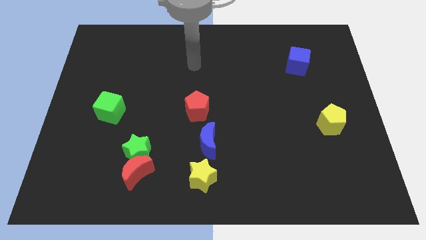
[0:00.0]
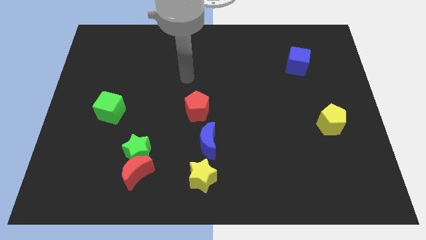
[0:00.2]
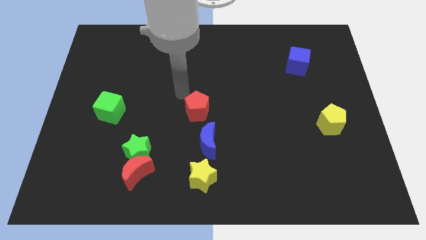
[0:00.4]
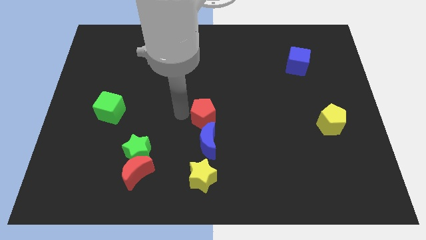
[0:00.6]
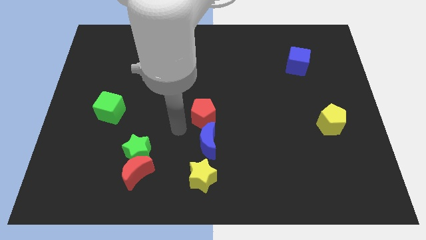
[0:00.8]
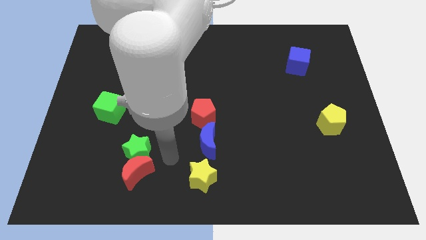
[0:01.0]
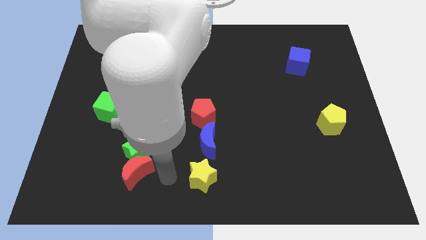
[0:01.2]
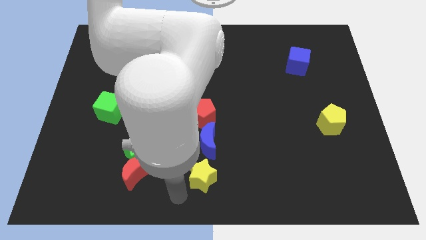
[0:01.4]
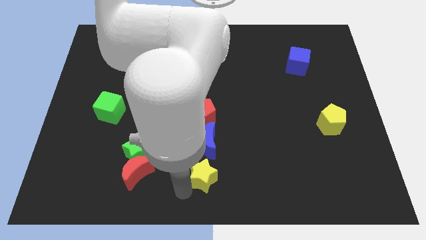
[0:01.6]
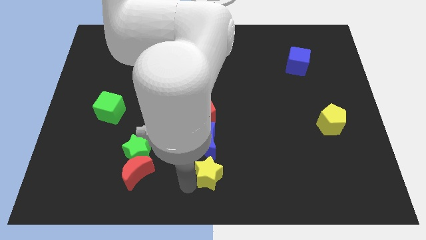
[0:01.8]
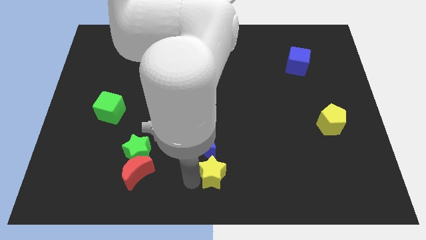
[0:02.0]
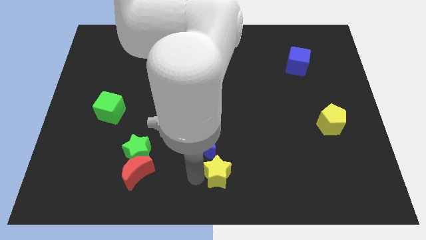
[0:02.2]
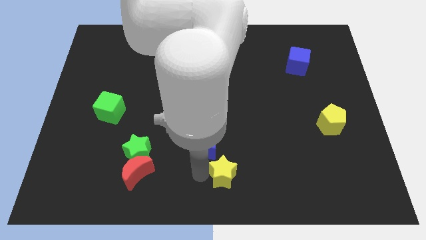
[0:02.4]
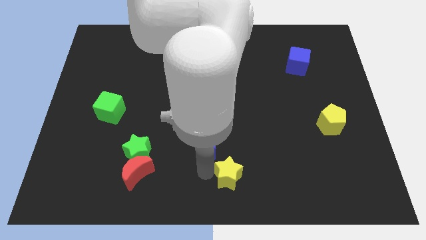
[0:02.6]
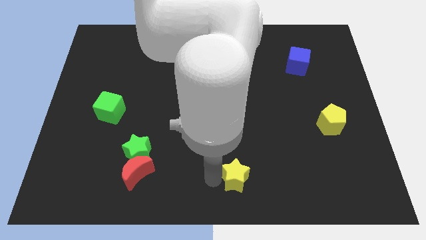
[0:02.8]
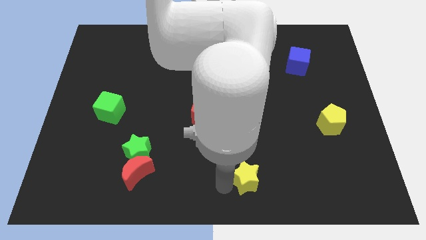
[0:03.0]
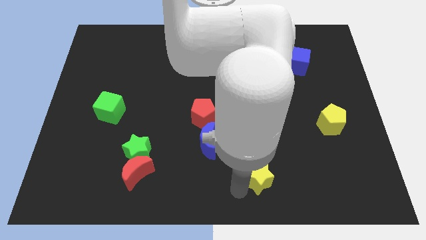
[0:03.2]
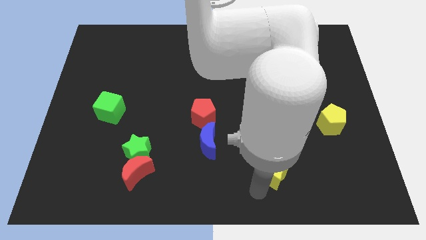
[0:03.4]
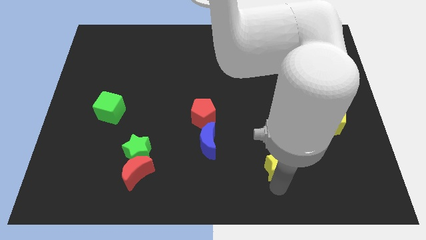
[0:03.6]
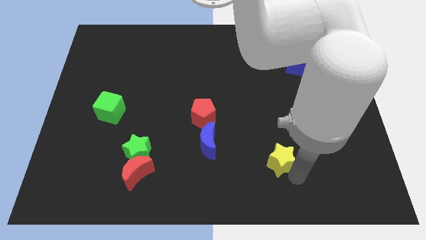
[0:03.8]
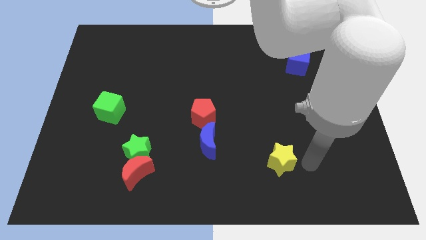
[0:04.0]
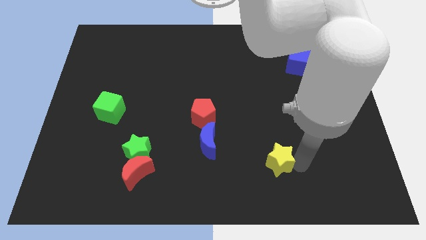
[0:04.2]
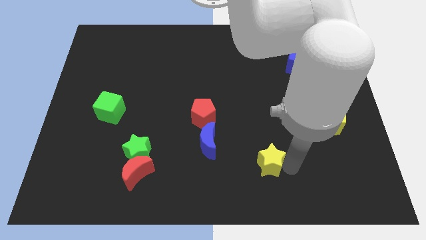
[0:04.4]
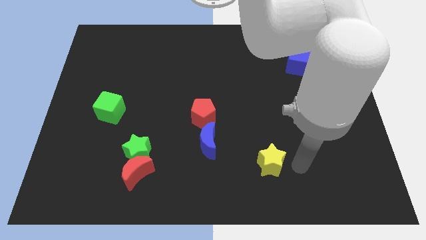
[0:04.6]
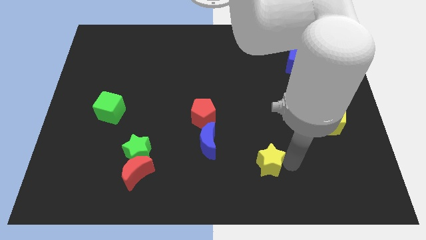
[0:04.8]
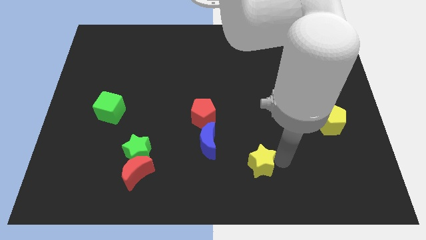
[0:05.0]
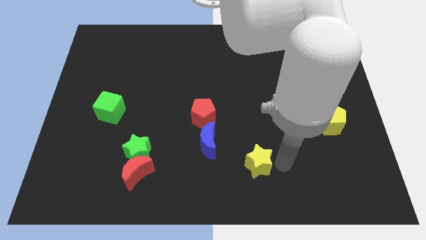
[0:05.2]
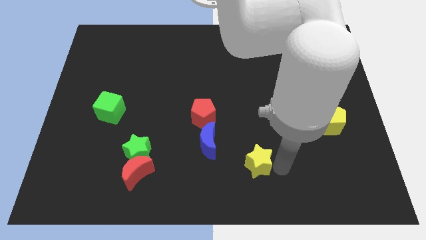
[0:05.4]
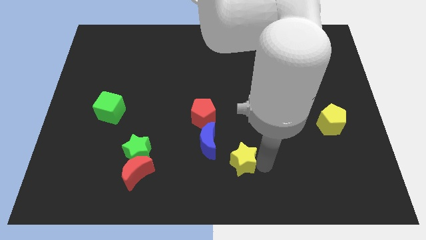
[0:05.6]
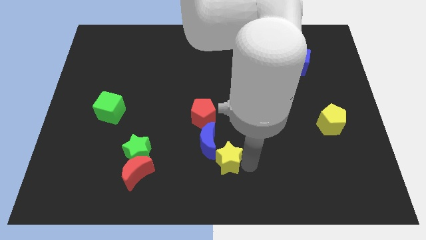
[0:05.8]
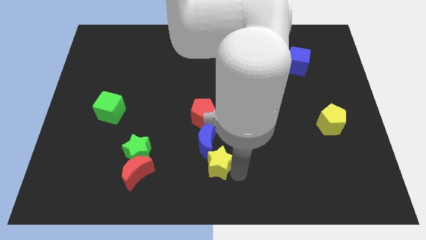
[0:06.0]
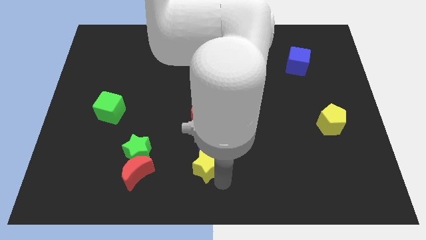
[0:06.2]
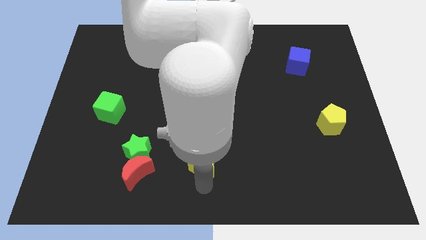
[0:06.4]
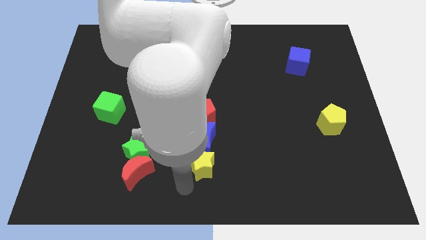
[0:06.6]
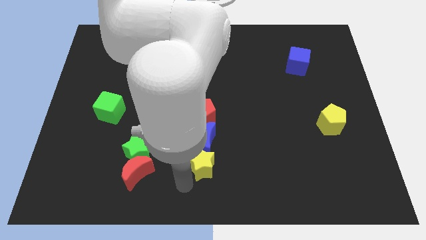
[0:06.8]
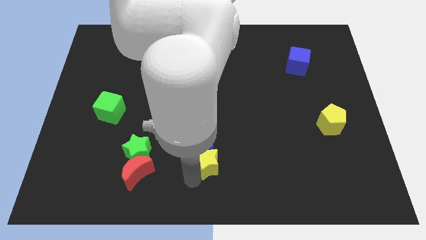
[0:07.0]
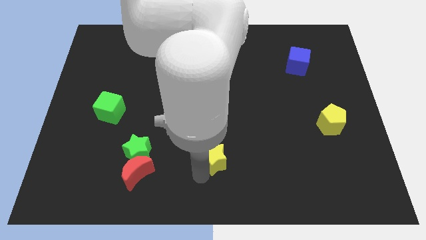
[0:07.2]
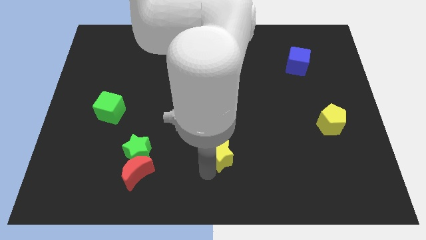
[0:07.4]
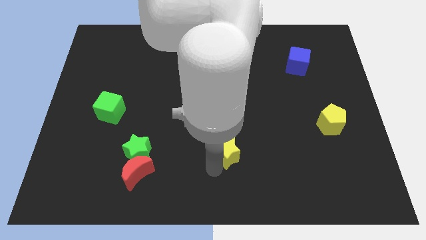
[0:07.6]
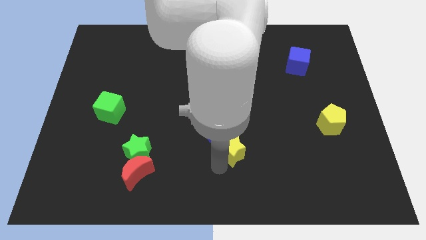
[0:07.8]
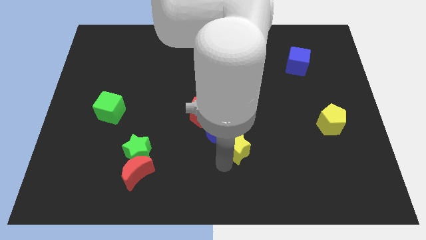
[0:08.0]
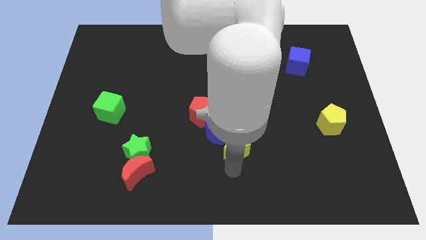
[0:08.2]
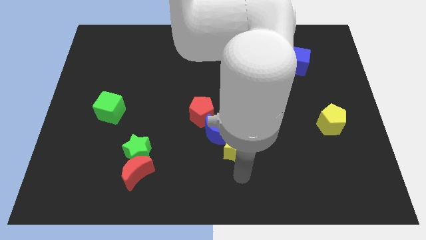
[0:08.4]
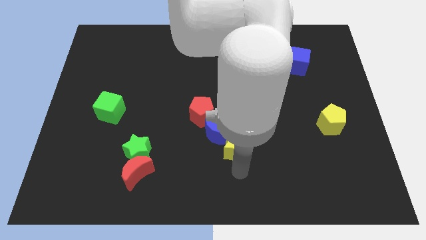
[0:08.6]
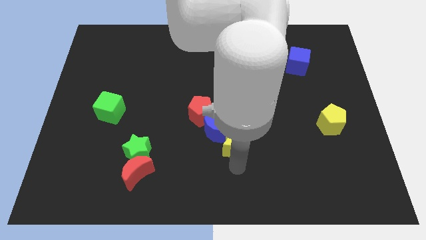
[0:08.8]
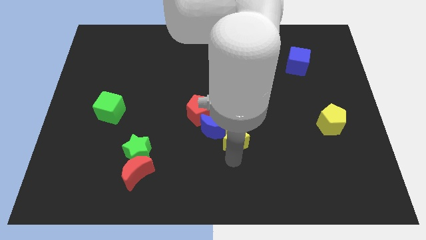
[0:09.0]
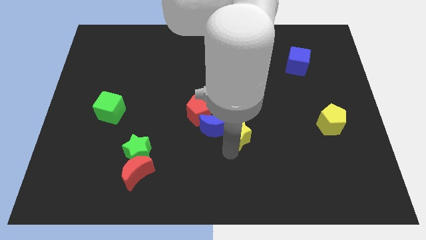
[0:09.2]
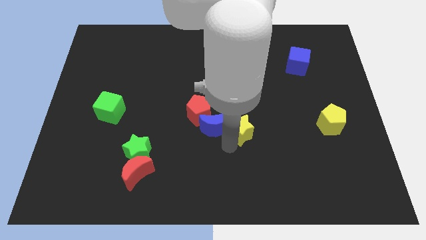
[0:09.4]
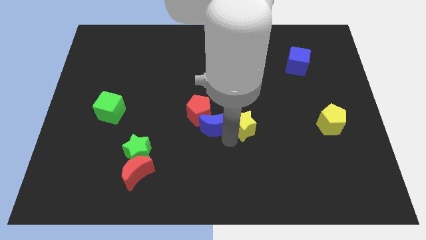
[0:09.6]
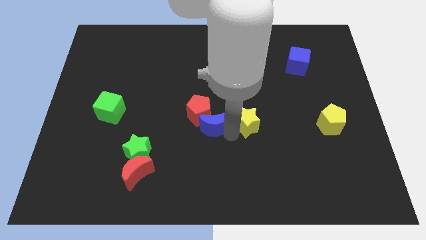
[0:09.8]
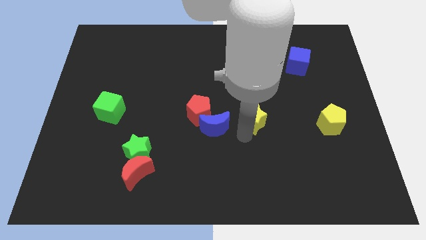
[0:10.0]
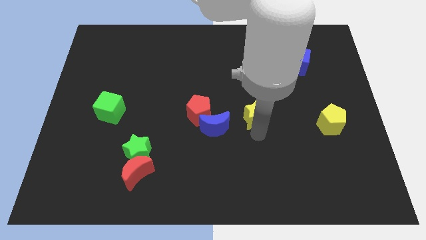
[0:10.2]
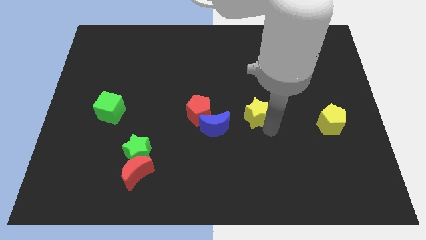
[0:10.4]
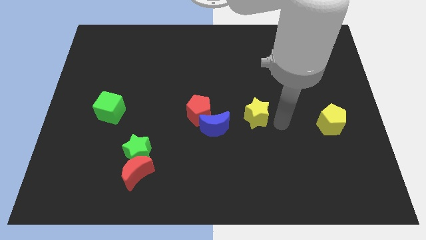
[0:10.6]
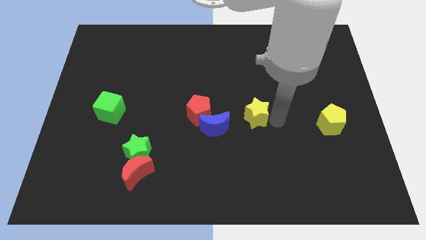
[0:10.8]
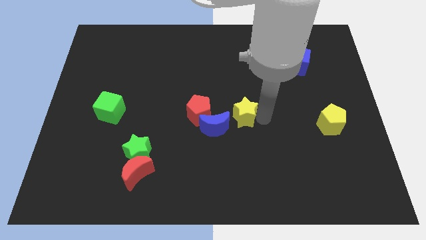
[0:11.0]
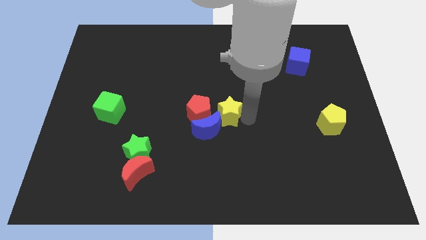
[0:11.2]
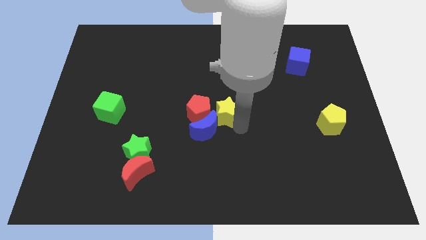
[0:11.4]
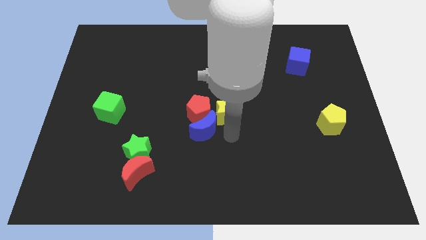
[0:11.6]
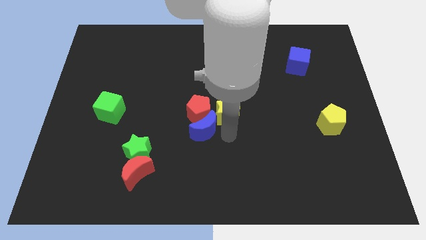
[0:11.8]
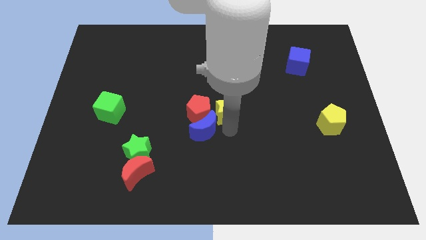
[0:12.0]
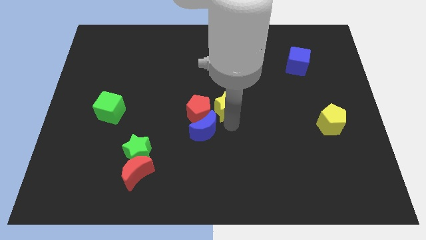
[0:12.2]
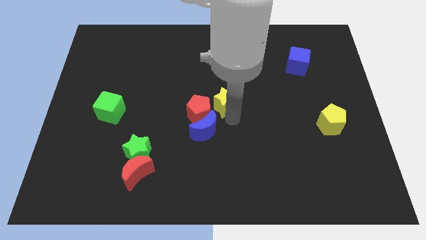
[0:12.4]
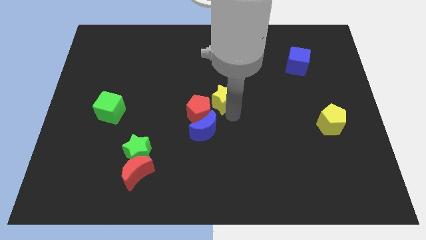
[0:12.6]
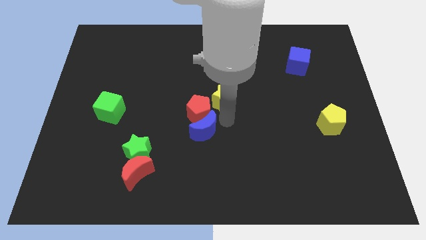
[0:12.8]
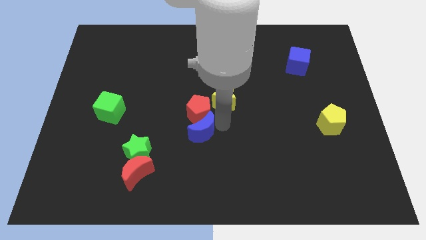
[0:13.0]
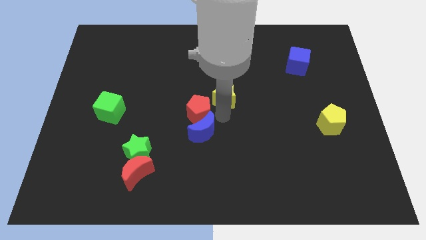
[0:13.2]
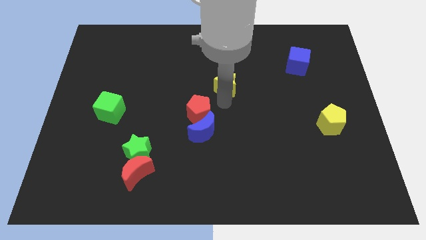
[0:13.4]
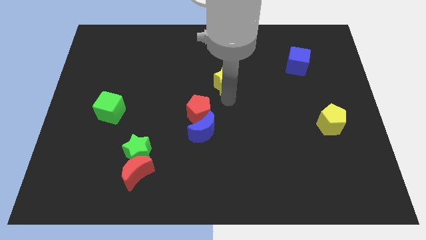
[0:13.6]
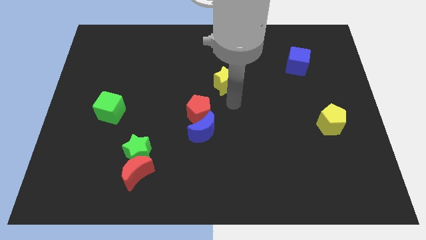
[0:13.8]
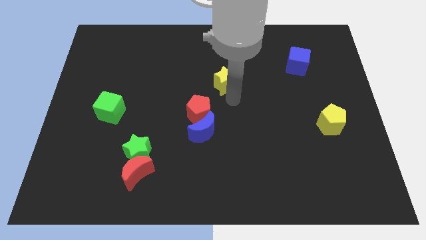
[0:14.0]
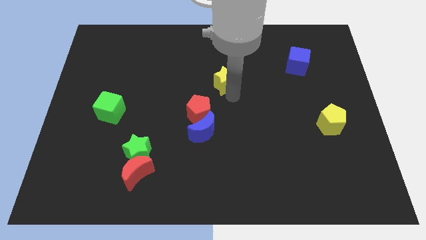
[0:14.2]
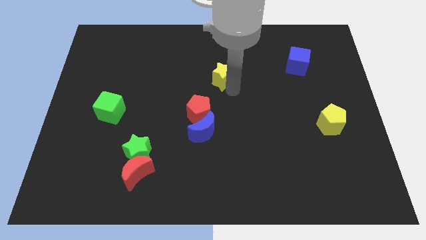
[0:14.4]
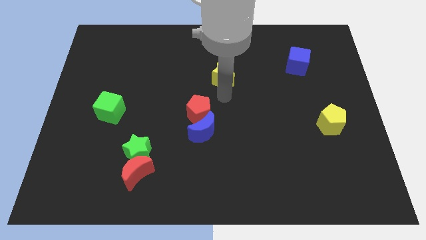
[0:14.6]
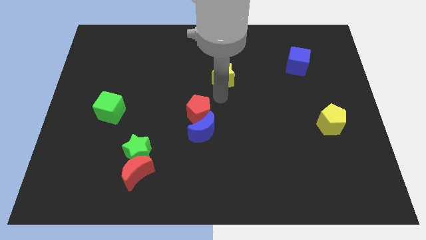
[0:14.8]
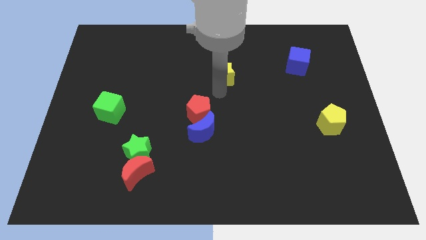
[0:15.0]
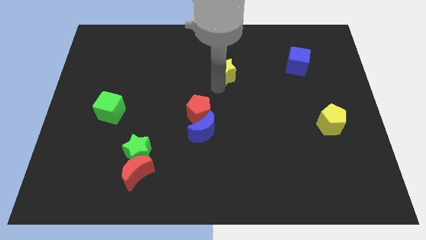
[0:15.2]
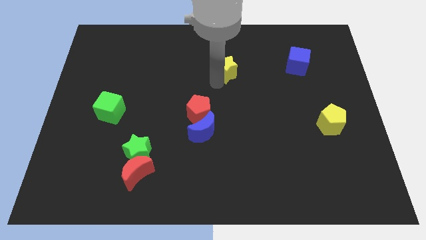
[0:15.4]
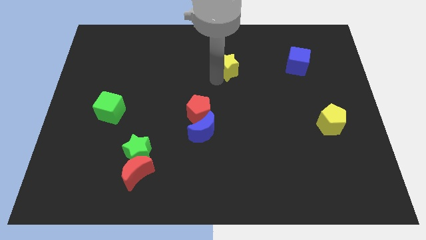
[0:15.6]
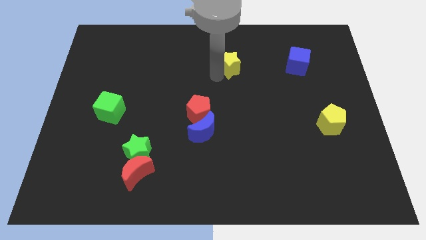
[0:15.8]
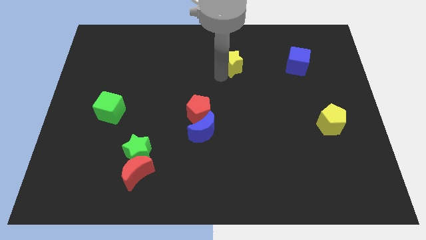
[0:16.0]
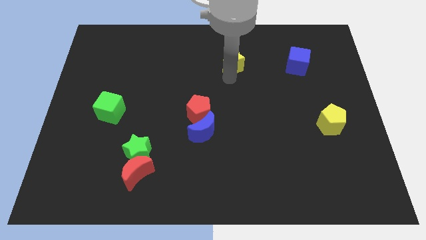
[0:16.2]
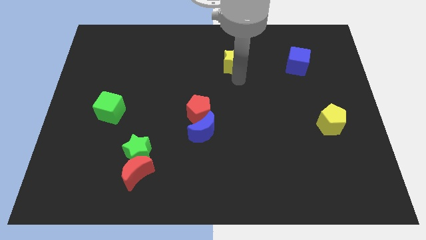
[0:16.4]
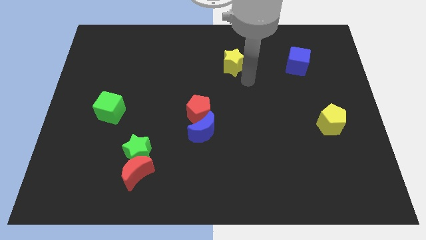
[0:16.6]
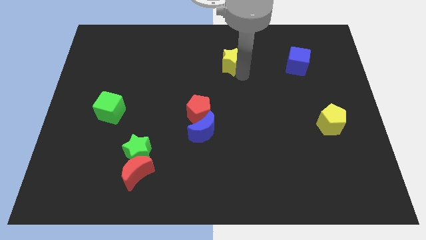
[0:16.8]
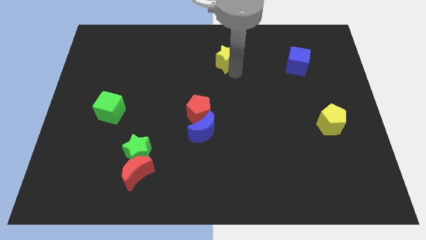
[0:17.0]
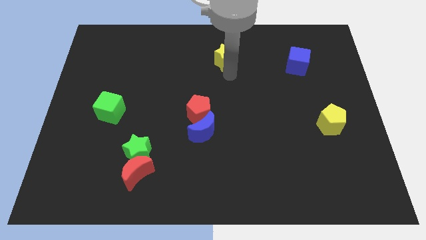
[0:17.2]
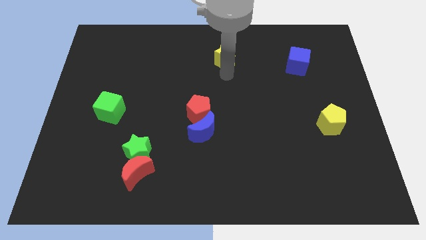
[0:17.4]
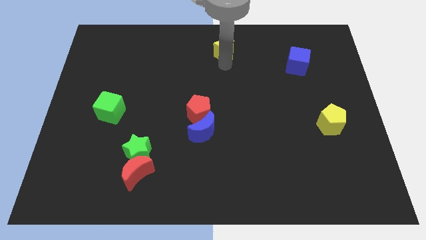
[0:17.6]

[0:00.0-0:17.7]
push the yellow star to the top
